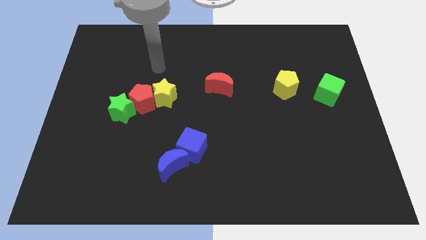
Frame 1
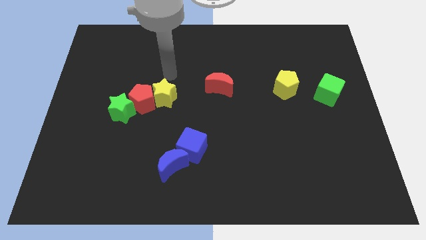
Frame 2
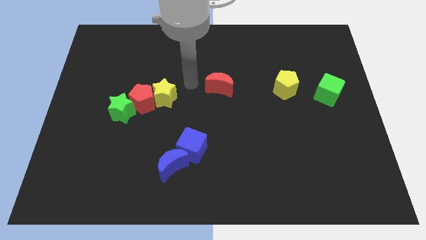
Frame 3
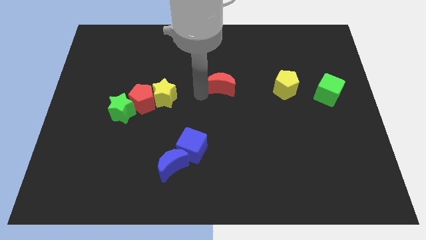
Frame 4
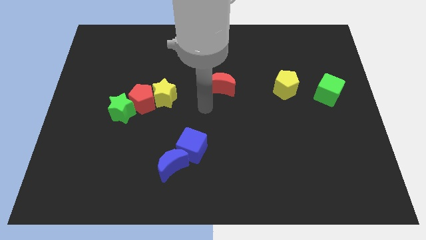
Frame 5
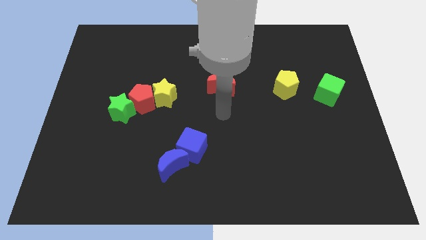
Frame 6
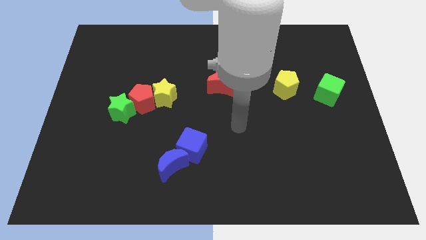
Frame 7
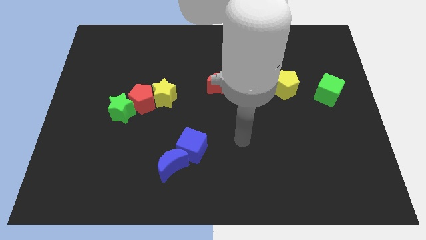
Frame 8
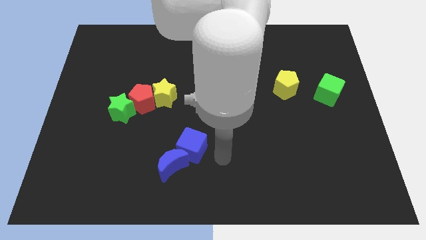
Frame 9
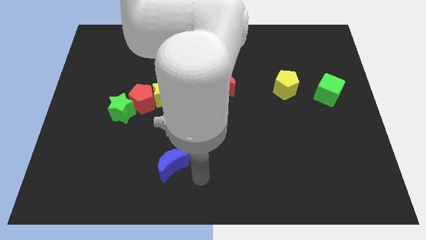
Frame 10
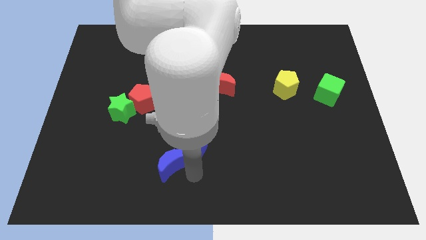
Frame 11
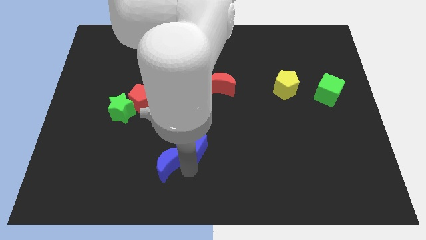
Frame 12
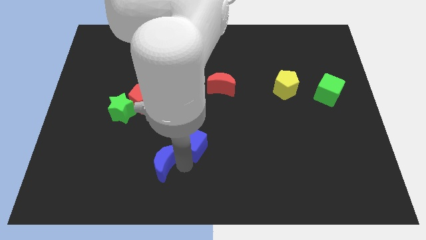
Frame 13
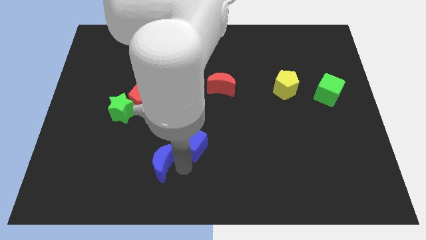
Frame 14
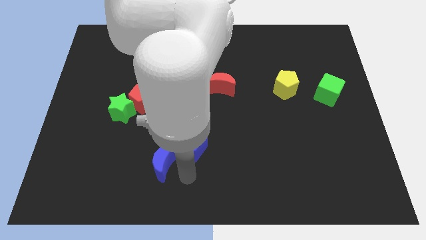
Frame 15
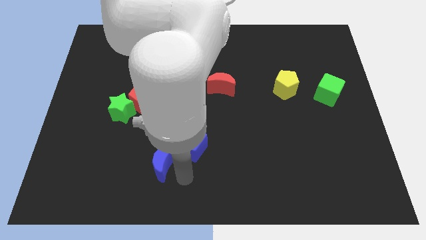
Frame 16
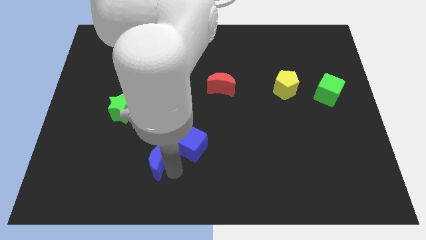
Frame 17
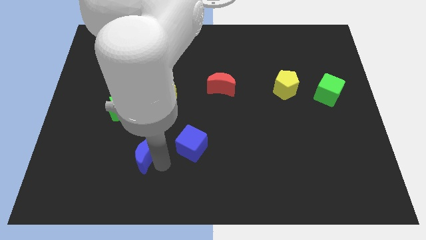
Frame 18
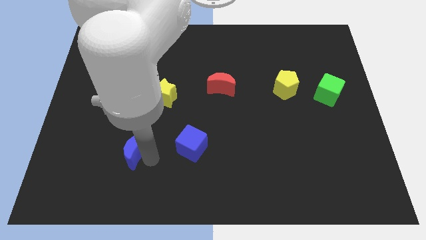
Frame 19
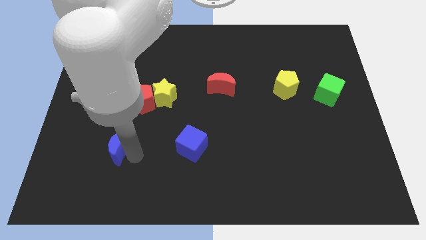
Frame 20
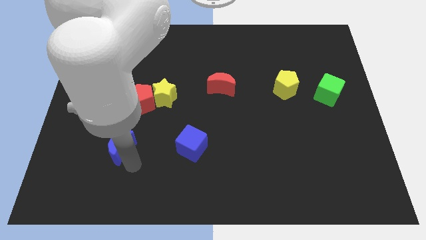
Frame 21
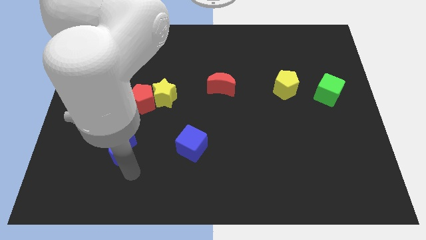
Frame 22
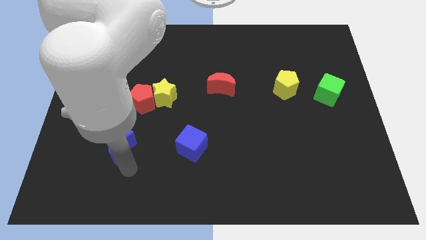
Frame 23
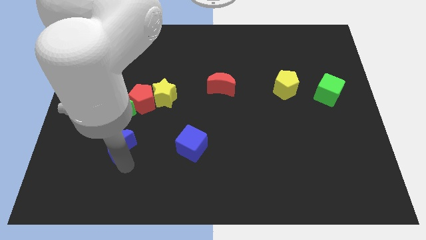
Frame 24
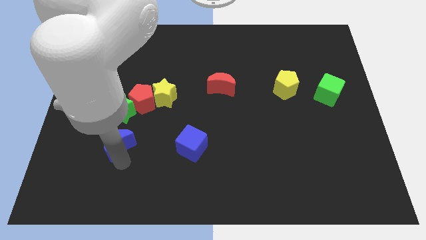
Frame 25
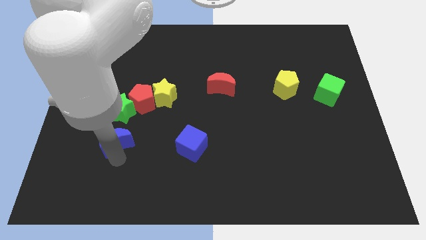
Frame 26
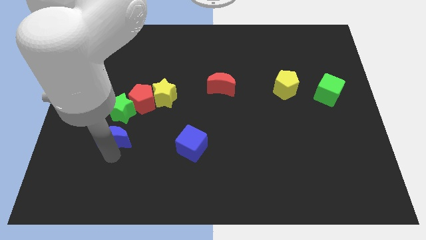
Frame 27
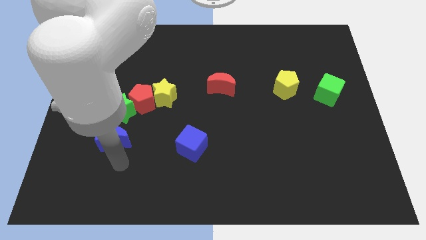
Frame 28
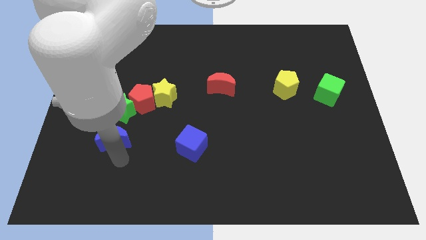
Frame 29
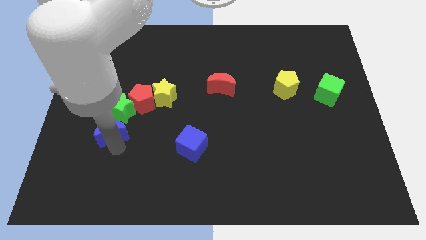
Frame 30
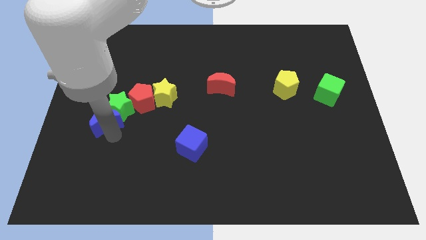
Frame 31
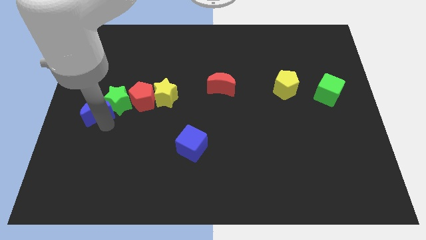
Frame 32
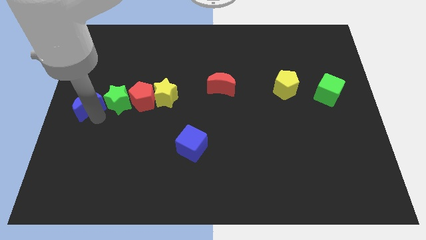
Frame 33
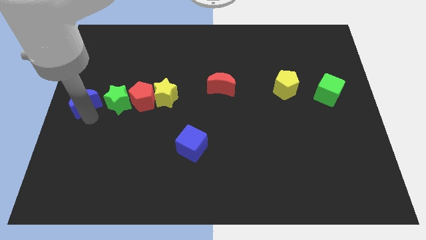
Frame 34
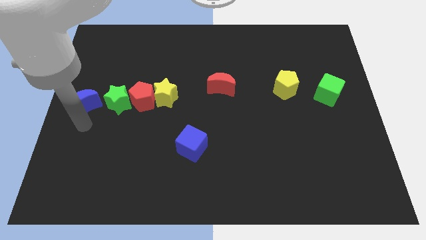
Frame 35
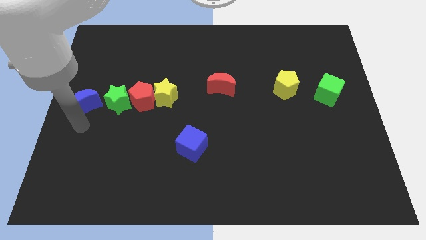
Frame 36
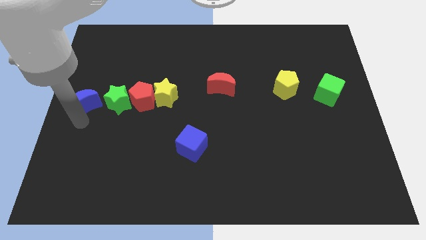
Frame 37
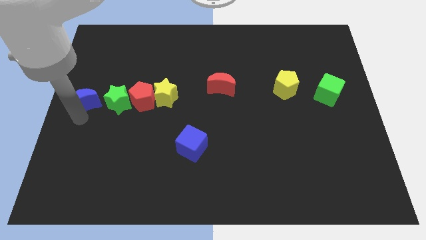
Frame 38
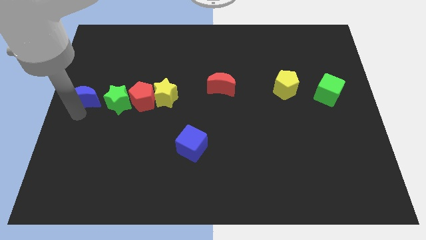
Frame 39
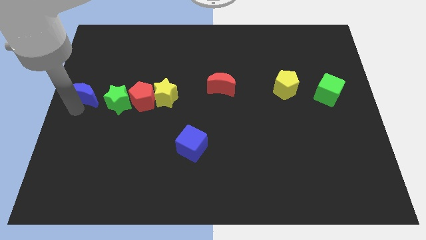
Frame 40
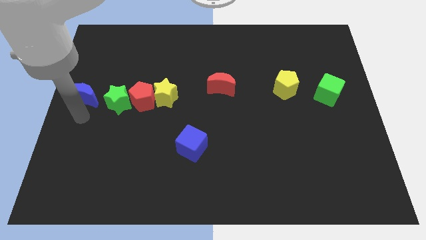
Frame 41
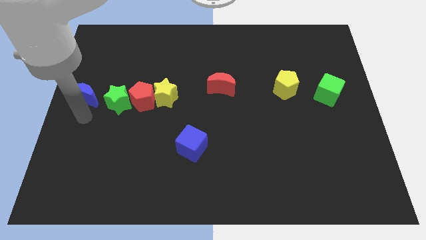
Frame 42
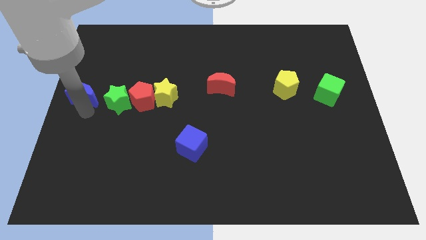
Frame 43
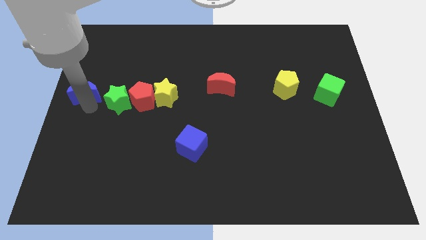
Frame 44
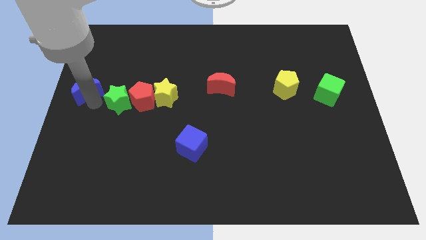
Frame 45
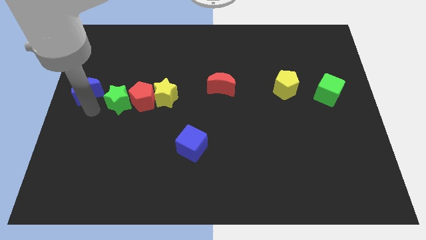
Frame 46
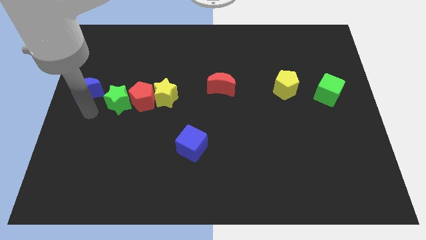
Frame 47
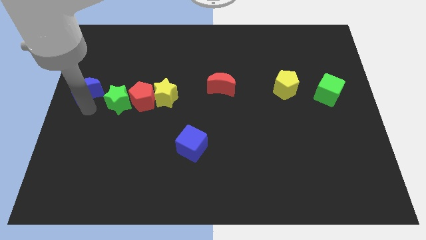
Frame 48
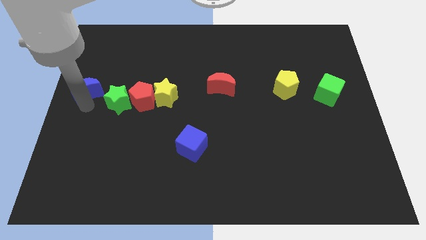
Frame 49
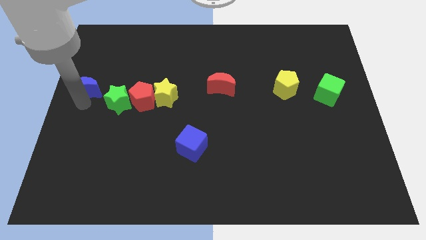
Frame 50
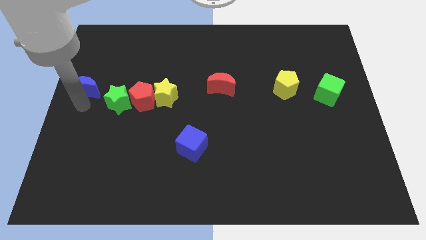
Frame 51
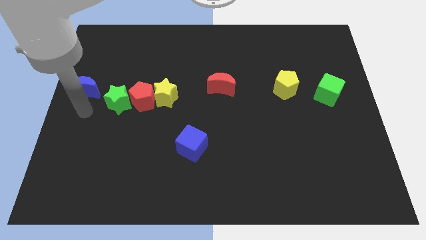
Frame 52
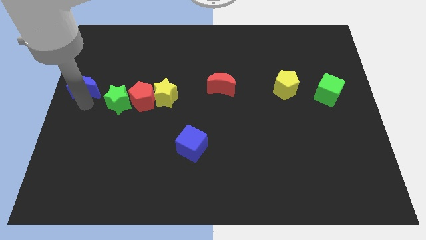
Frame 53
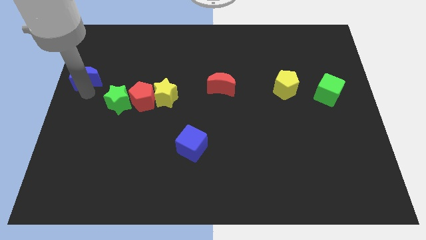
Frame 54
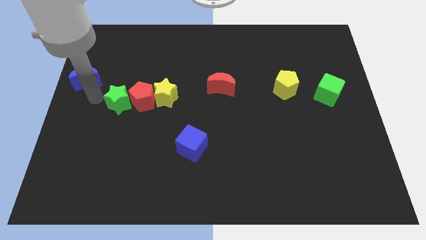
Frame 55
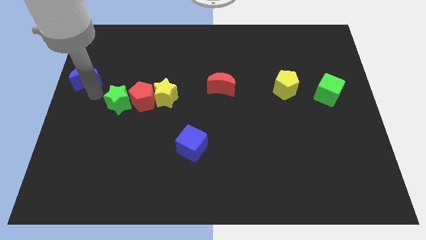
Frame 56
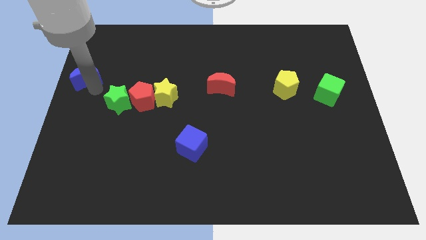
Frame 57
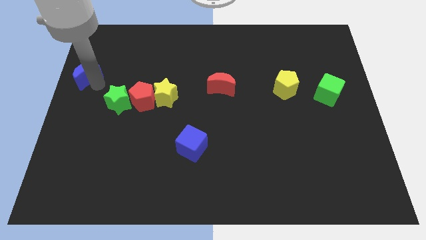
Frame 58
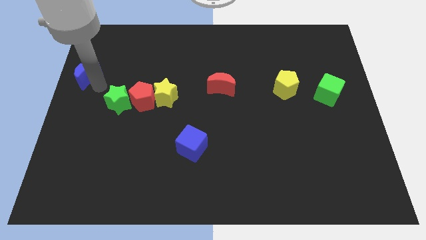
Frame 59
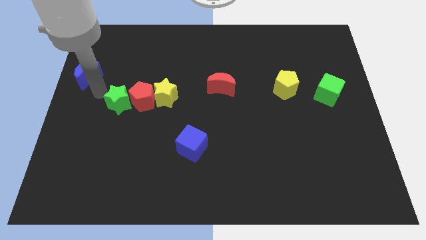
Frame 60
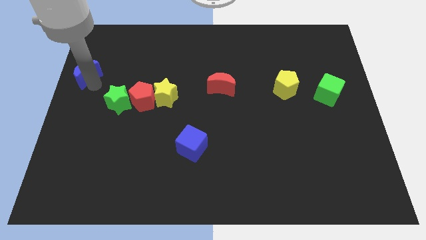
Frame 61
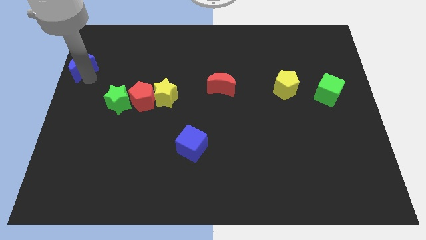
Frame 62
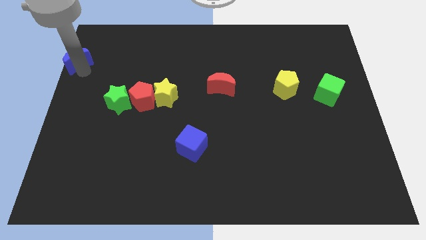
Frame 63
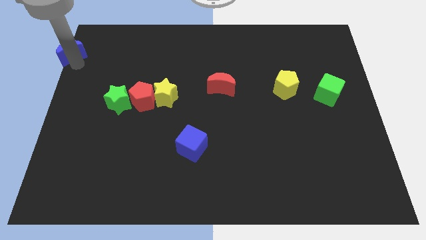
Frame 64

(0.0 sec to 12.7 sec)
slide the blue moon to the top left corner

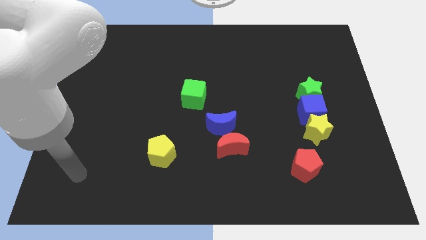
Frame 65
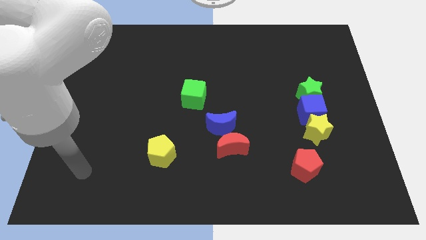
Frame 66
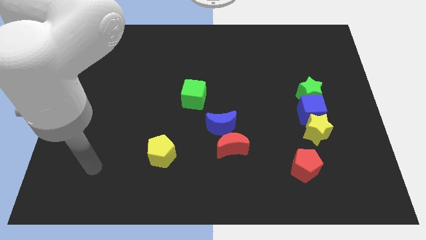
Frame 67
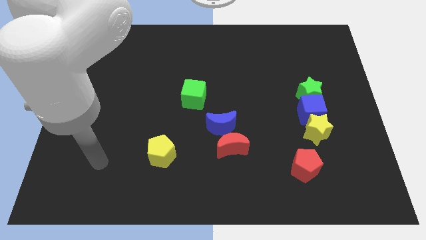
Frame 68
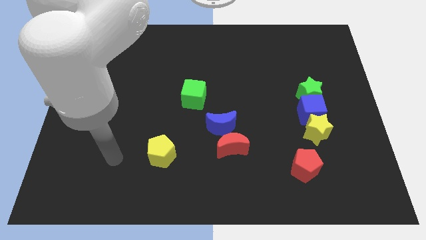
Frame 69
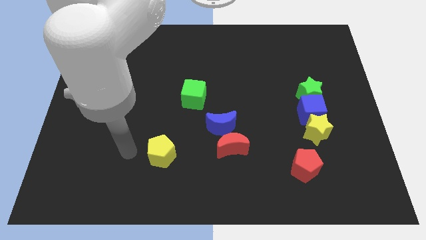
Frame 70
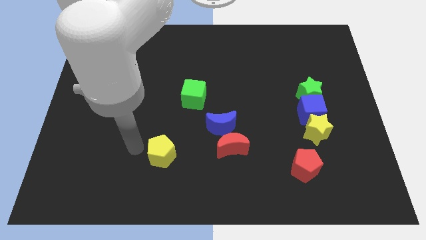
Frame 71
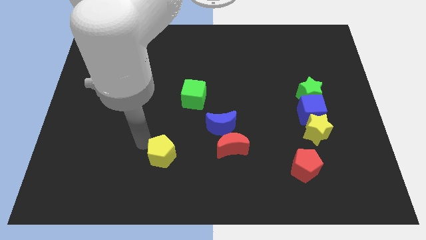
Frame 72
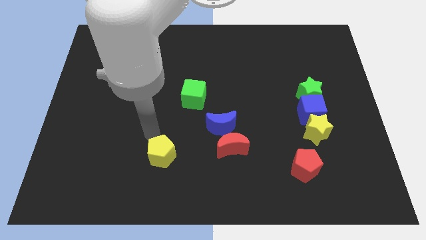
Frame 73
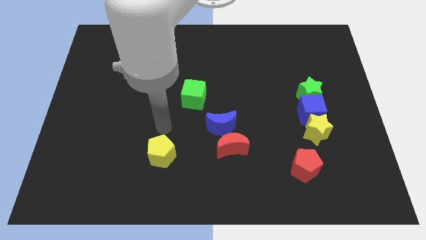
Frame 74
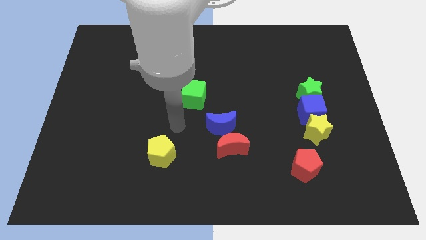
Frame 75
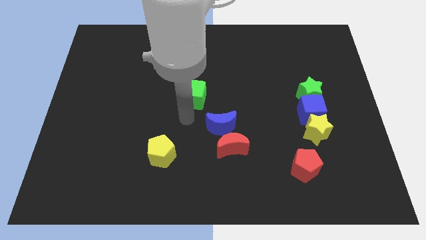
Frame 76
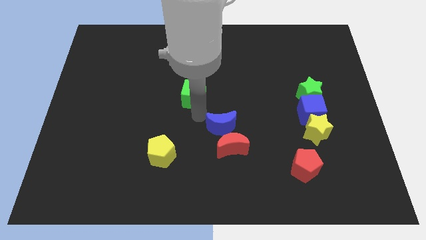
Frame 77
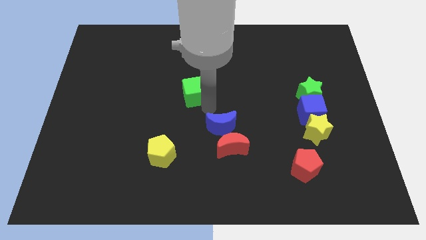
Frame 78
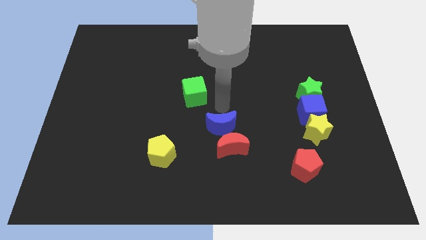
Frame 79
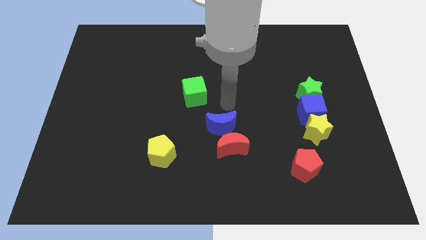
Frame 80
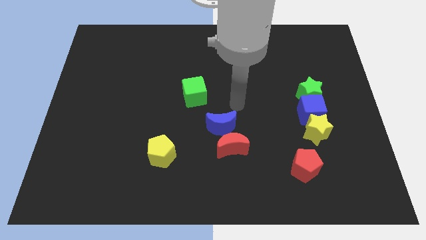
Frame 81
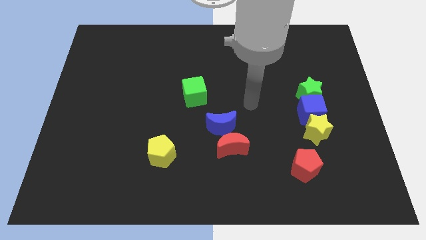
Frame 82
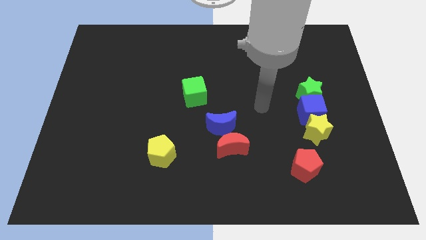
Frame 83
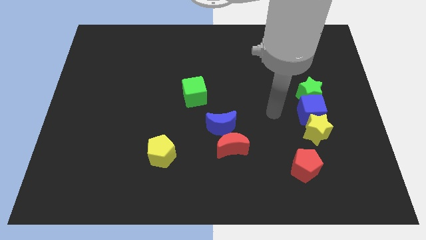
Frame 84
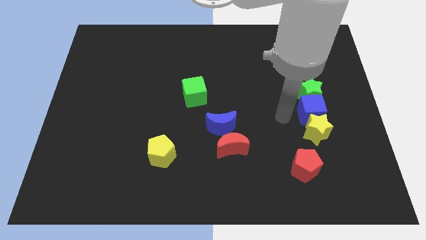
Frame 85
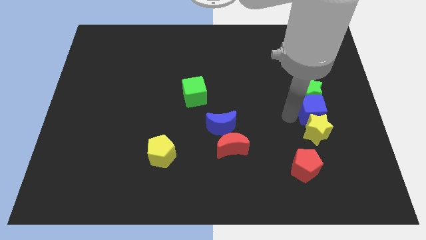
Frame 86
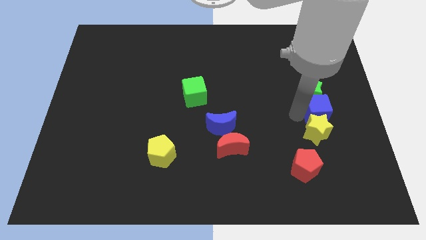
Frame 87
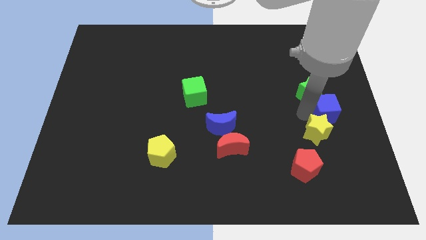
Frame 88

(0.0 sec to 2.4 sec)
slide the blue cube to the right side of the board
